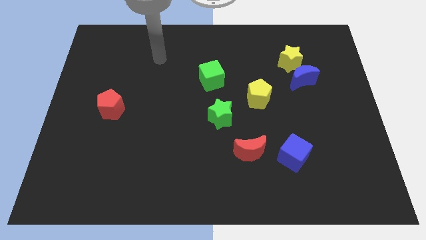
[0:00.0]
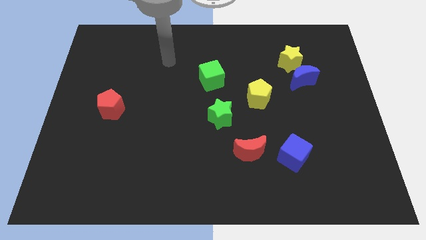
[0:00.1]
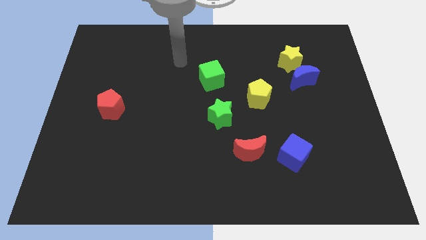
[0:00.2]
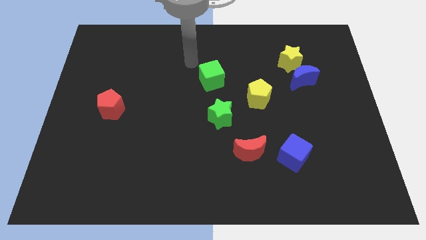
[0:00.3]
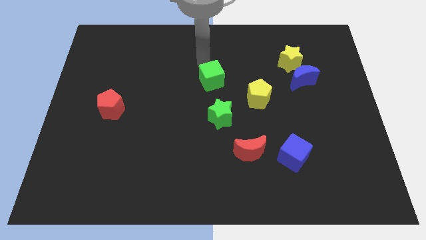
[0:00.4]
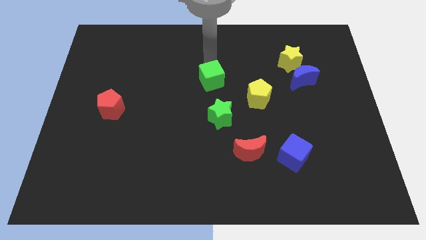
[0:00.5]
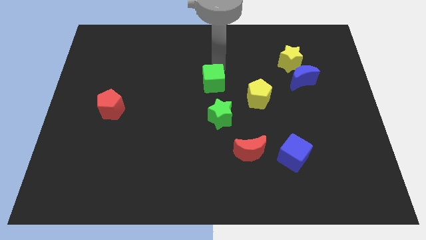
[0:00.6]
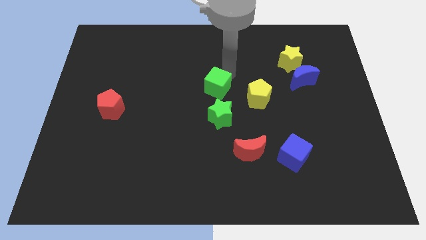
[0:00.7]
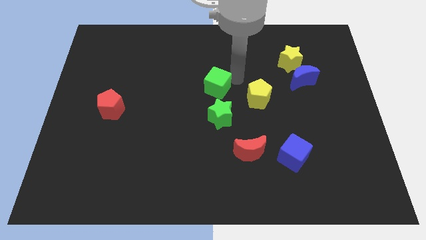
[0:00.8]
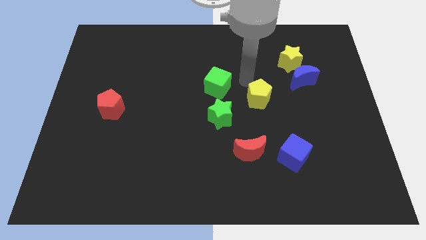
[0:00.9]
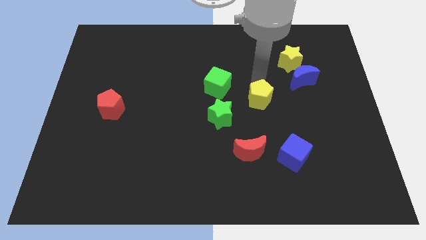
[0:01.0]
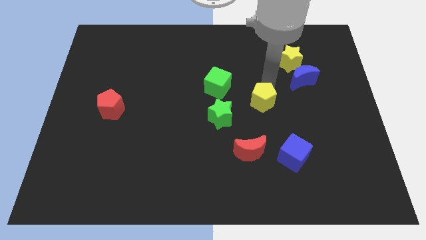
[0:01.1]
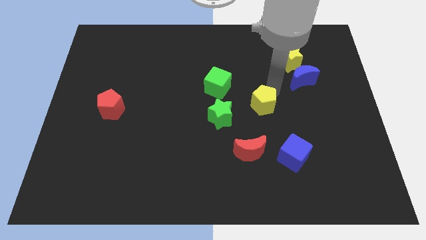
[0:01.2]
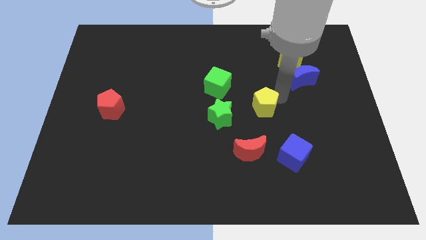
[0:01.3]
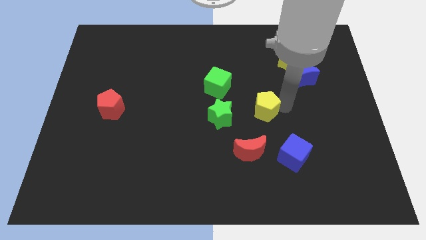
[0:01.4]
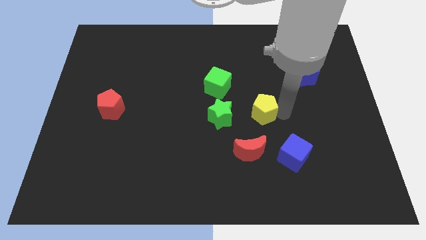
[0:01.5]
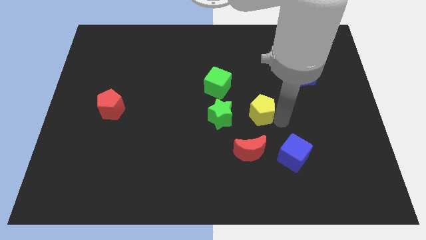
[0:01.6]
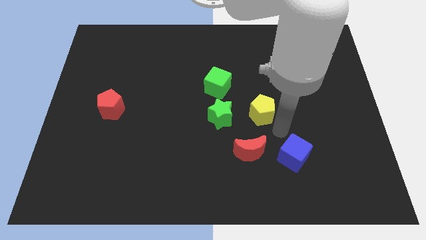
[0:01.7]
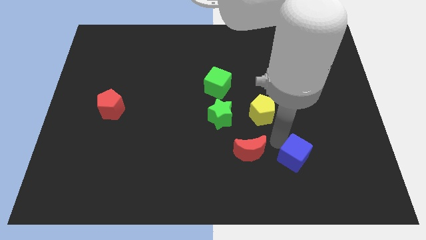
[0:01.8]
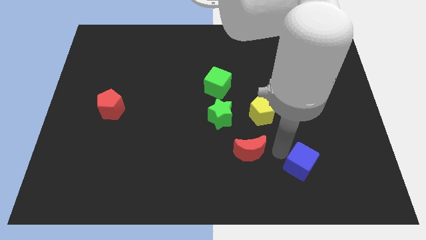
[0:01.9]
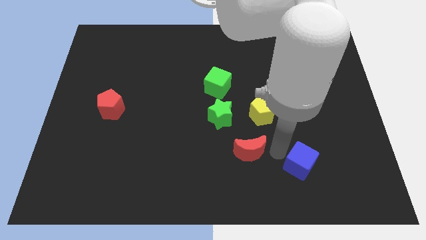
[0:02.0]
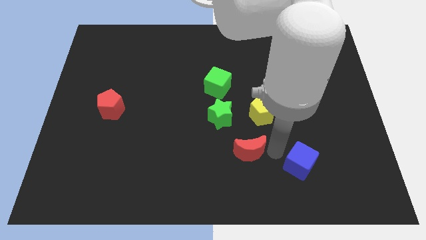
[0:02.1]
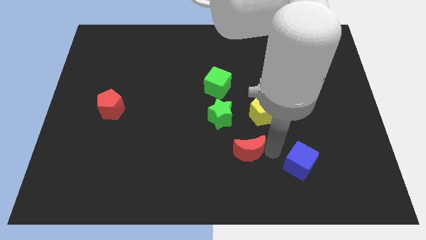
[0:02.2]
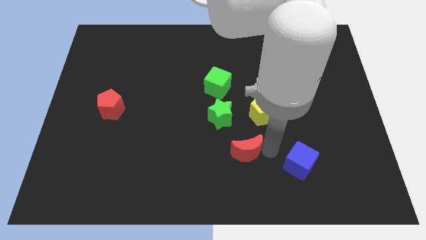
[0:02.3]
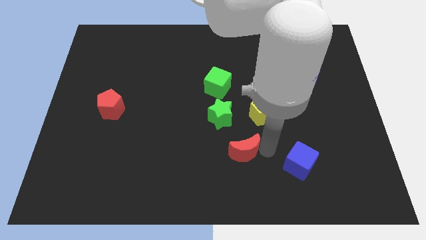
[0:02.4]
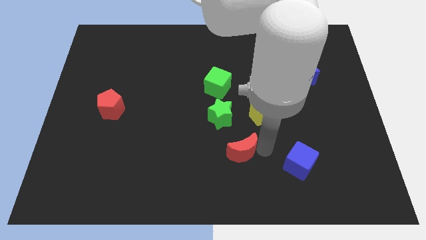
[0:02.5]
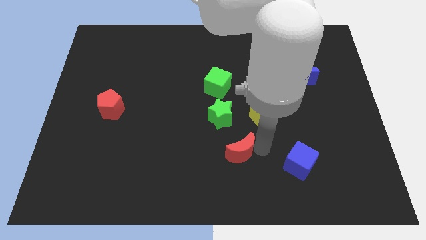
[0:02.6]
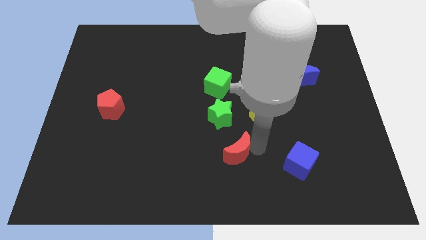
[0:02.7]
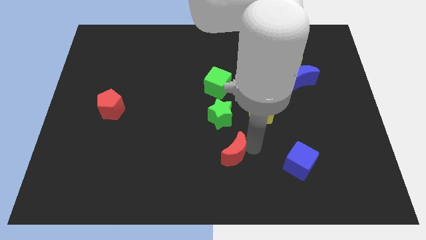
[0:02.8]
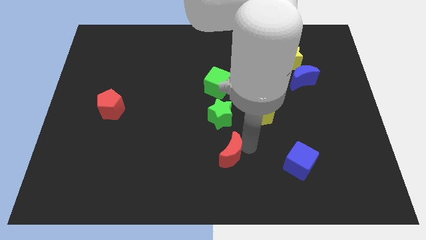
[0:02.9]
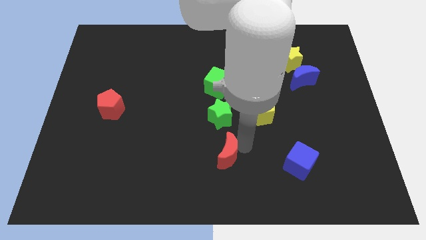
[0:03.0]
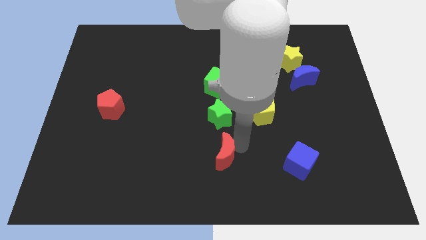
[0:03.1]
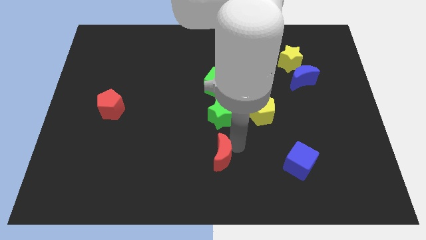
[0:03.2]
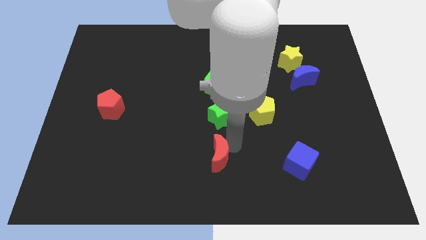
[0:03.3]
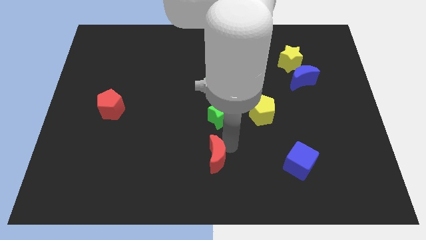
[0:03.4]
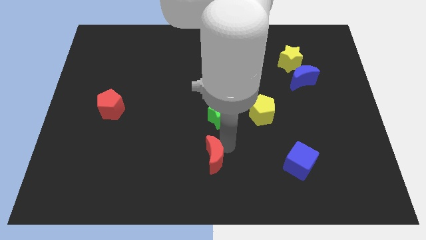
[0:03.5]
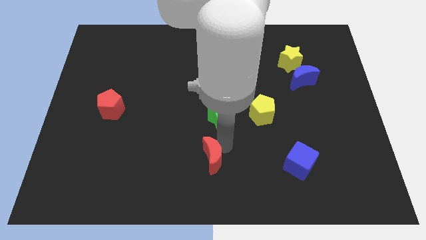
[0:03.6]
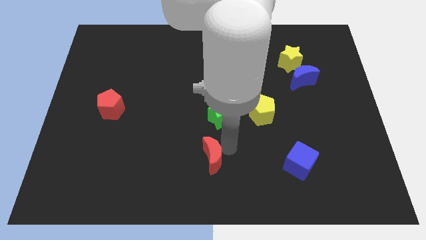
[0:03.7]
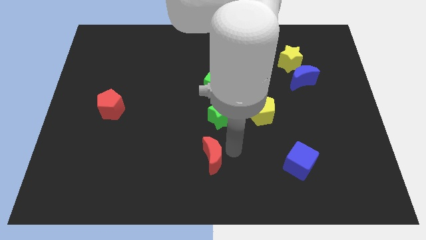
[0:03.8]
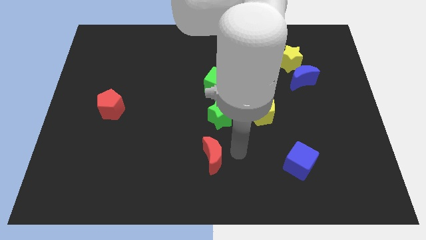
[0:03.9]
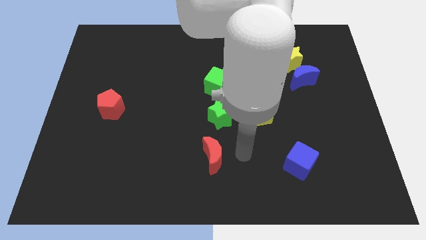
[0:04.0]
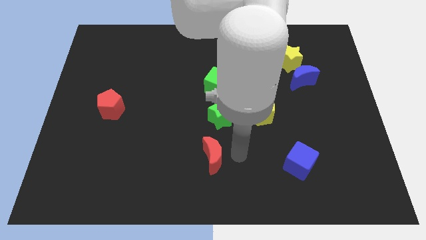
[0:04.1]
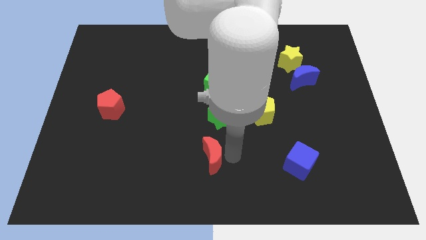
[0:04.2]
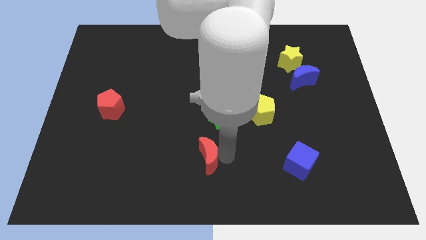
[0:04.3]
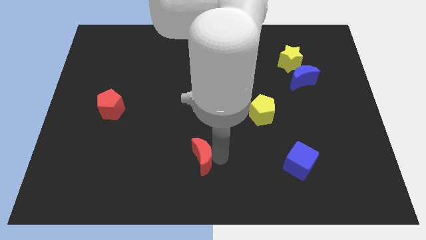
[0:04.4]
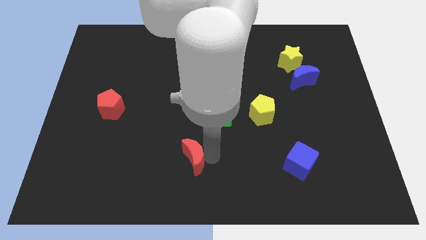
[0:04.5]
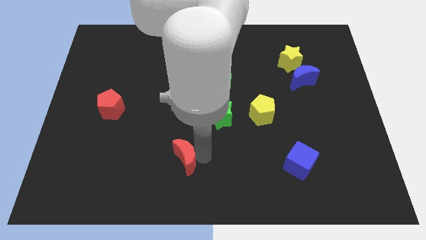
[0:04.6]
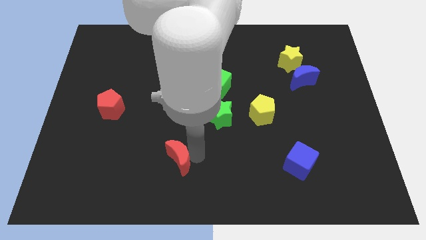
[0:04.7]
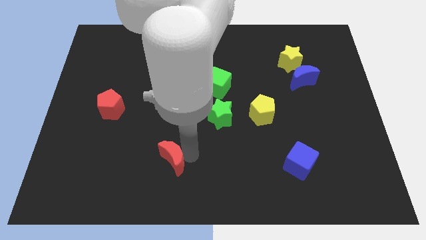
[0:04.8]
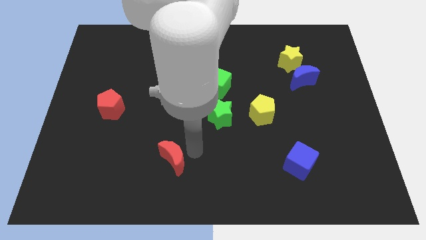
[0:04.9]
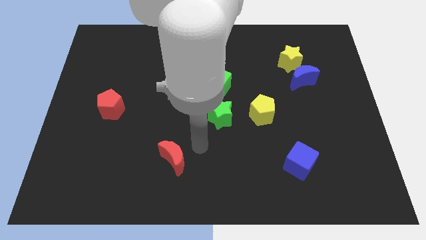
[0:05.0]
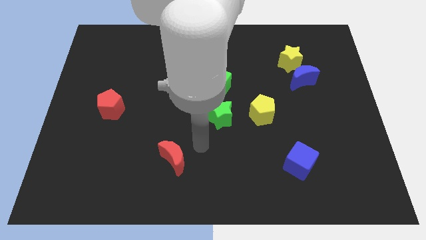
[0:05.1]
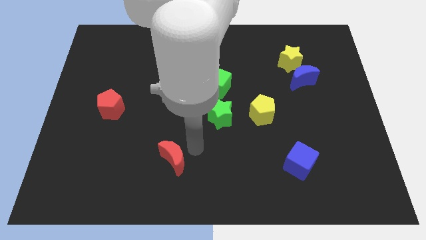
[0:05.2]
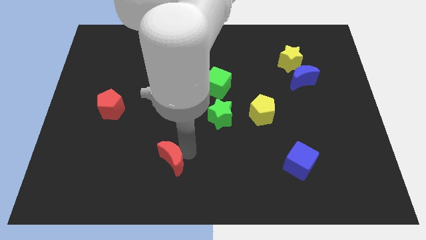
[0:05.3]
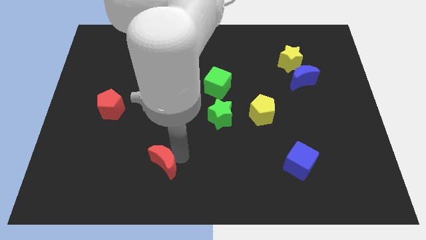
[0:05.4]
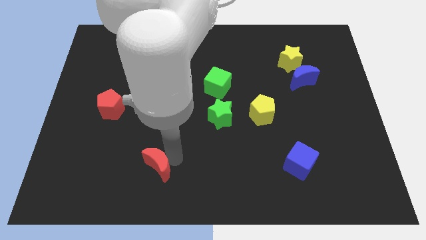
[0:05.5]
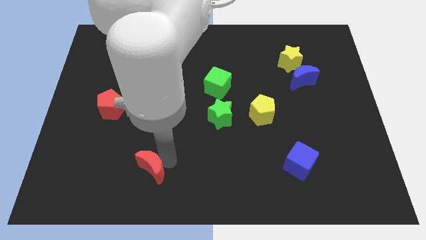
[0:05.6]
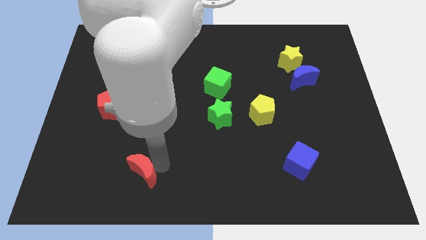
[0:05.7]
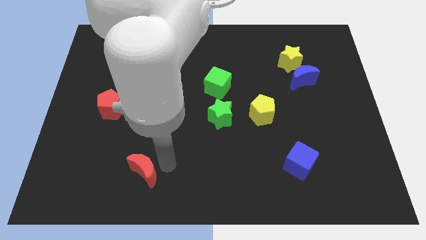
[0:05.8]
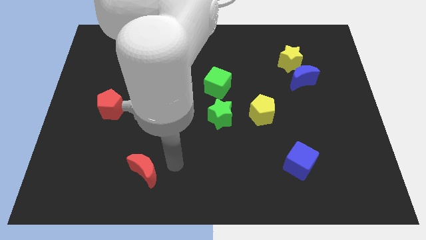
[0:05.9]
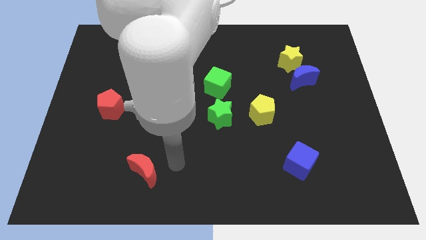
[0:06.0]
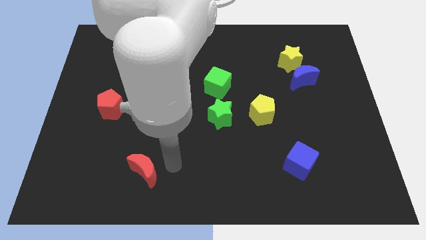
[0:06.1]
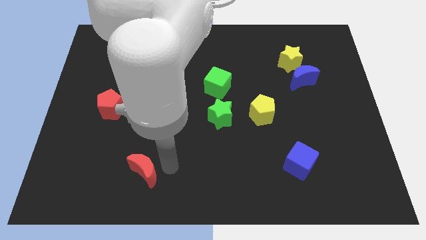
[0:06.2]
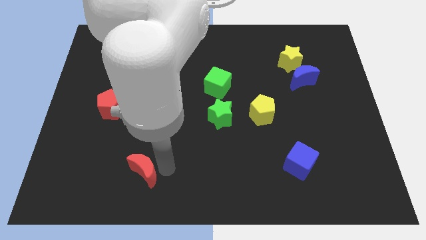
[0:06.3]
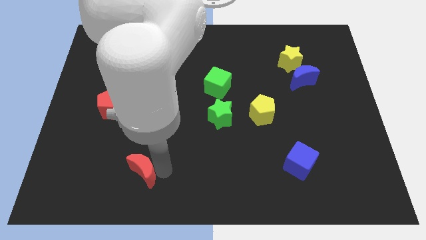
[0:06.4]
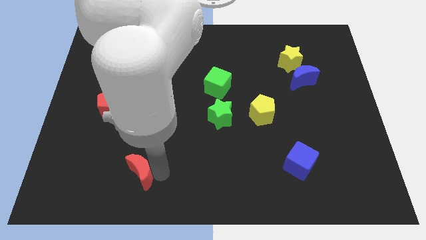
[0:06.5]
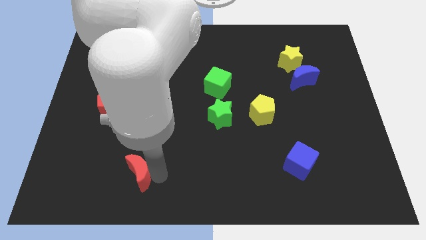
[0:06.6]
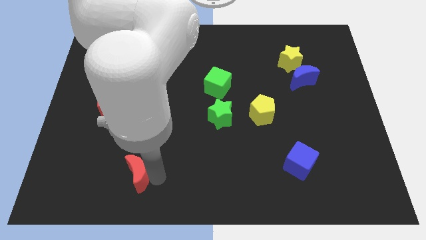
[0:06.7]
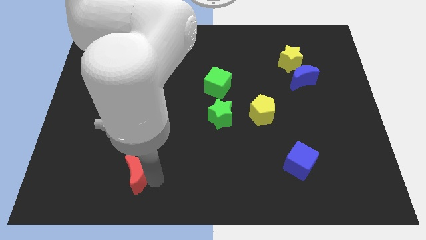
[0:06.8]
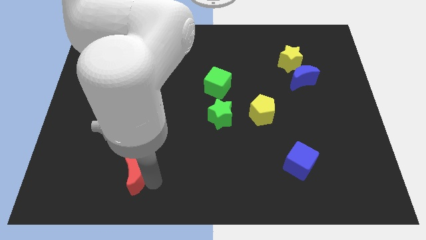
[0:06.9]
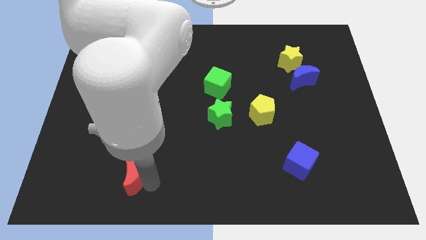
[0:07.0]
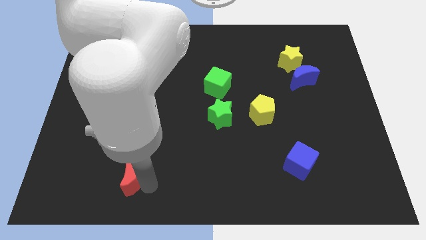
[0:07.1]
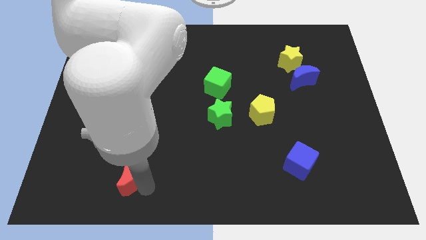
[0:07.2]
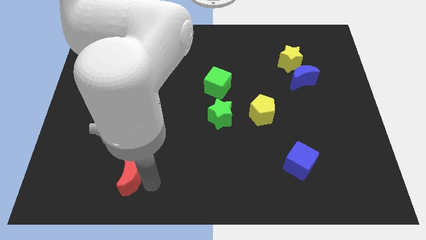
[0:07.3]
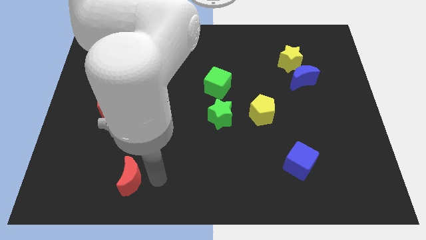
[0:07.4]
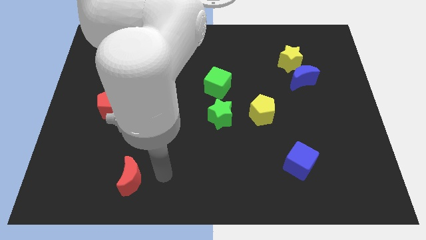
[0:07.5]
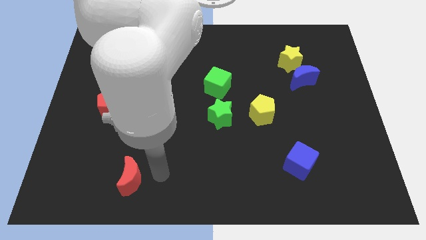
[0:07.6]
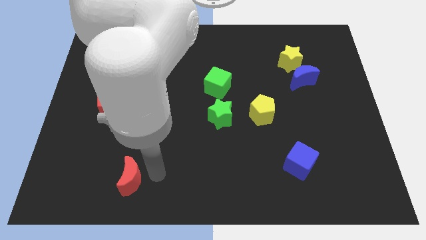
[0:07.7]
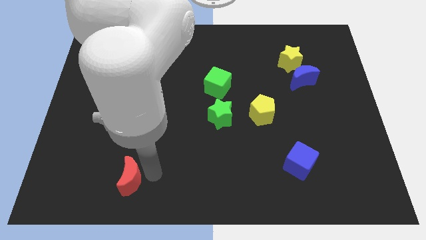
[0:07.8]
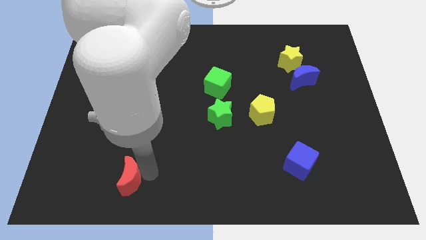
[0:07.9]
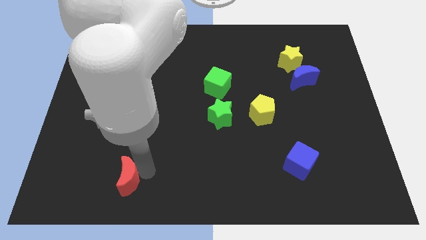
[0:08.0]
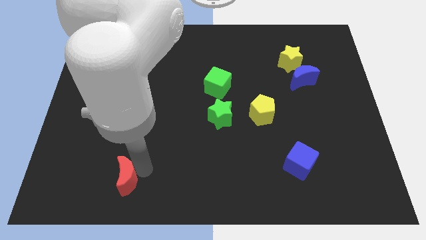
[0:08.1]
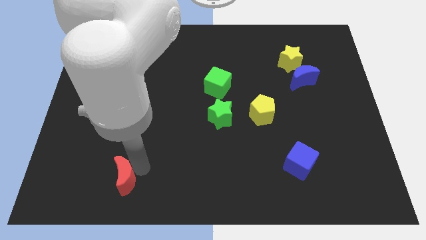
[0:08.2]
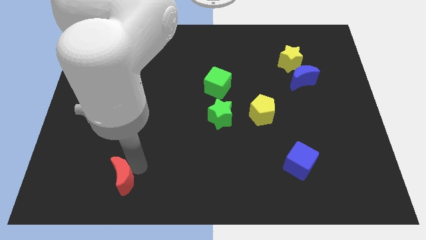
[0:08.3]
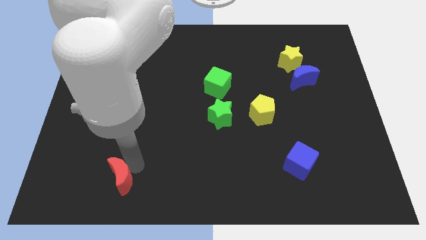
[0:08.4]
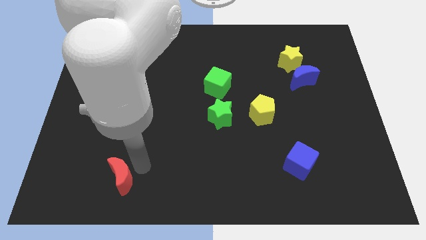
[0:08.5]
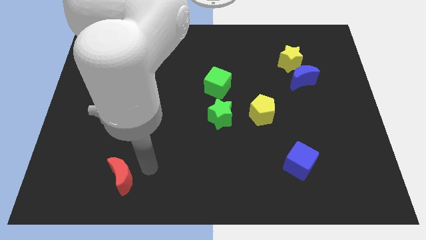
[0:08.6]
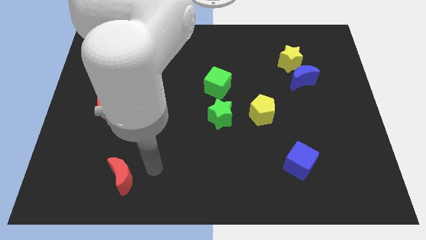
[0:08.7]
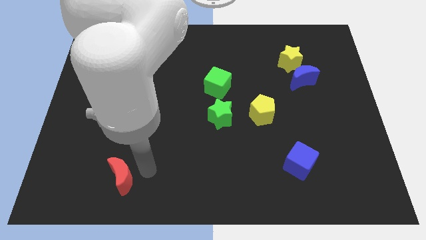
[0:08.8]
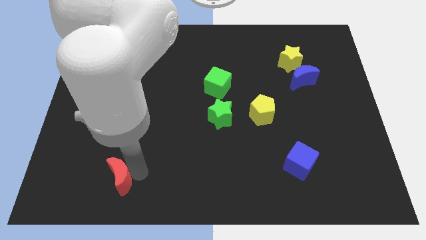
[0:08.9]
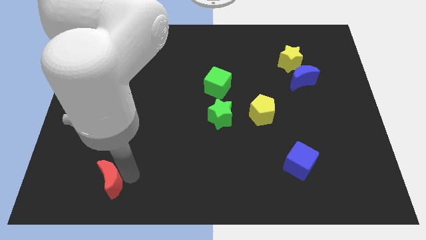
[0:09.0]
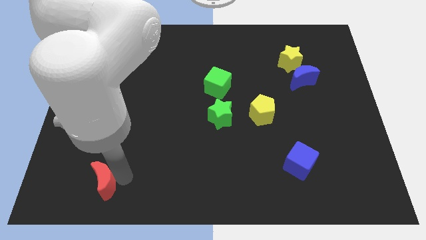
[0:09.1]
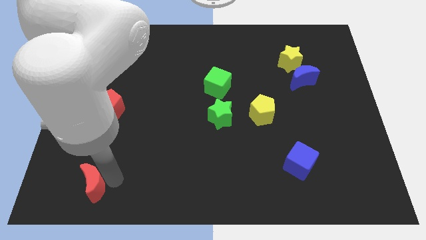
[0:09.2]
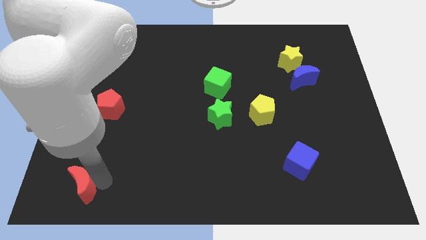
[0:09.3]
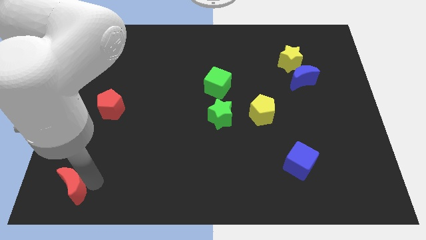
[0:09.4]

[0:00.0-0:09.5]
push the red moon to the lower left corner
